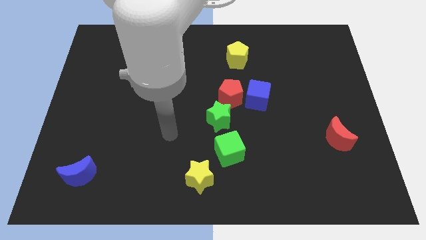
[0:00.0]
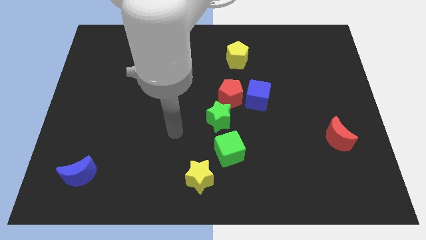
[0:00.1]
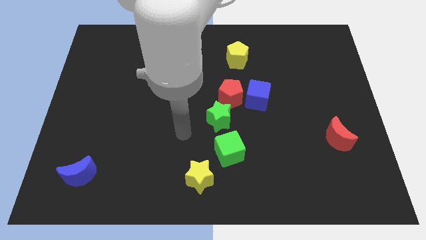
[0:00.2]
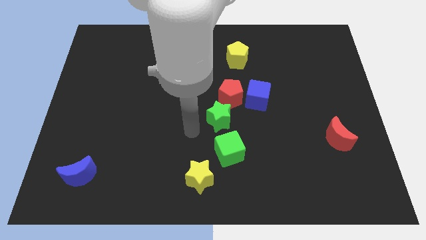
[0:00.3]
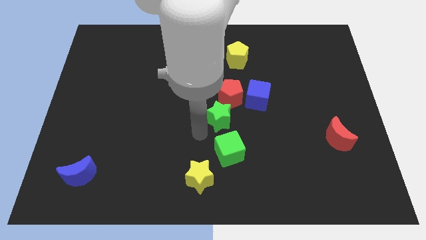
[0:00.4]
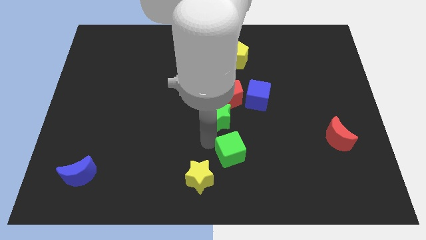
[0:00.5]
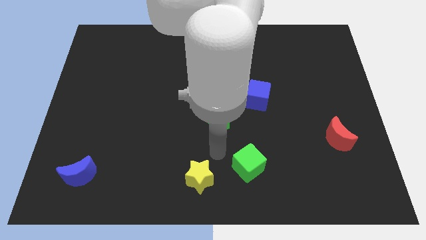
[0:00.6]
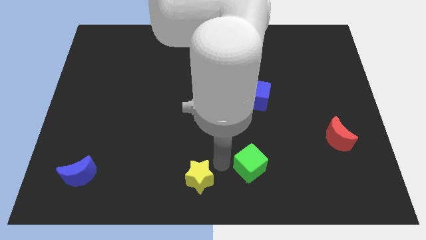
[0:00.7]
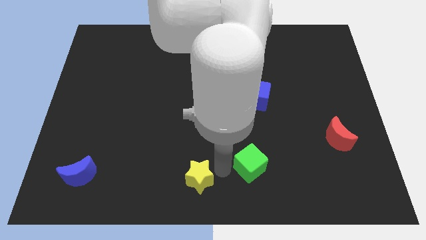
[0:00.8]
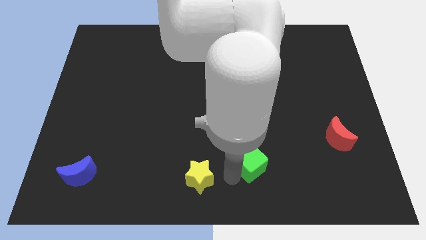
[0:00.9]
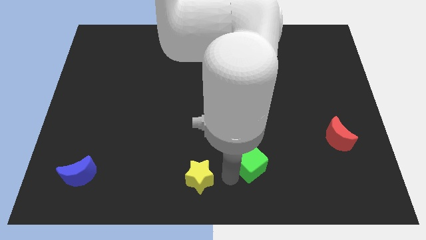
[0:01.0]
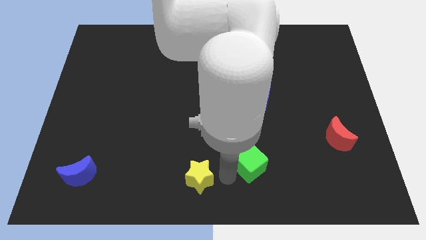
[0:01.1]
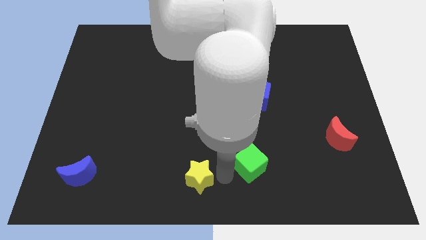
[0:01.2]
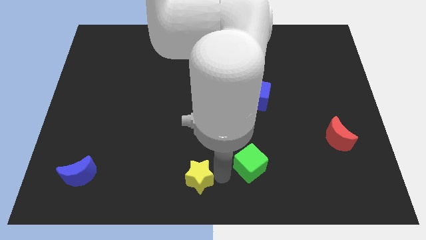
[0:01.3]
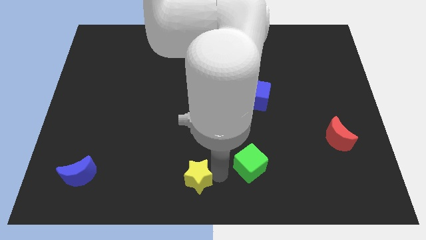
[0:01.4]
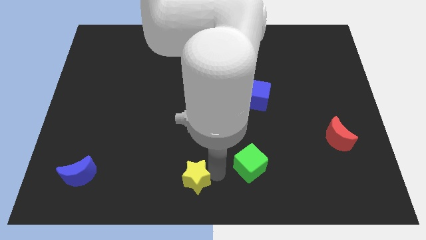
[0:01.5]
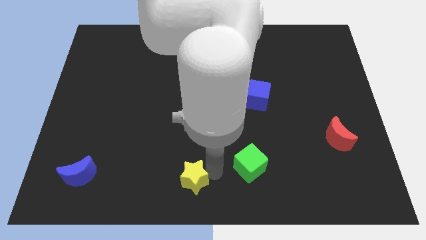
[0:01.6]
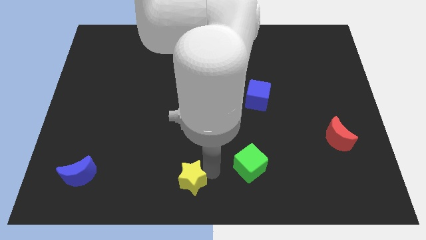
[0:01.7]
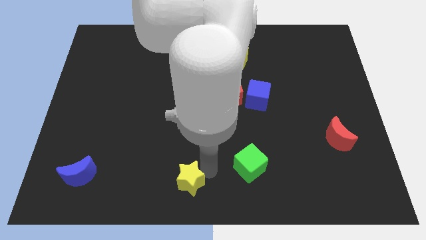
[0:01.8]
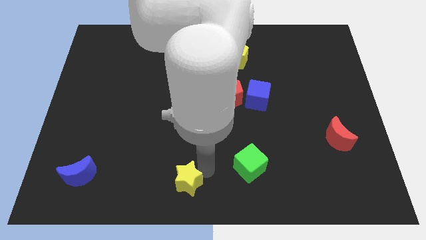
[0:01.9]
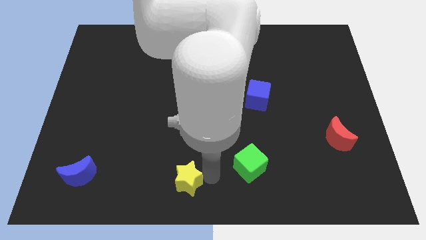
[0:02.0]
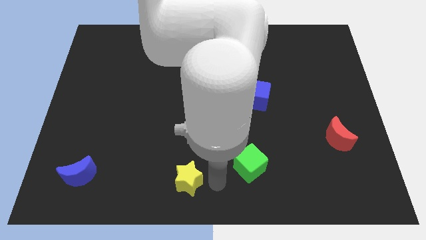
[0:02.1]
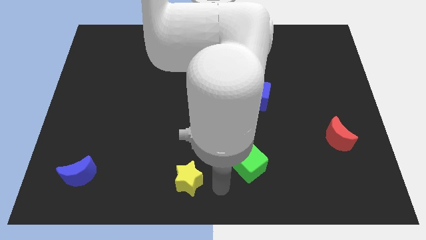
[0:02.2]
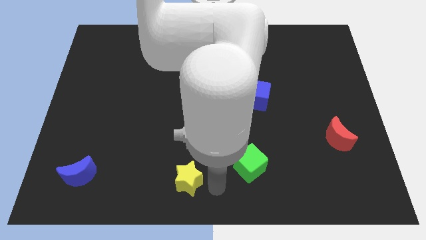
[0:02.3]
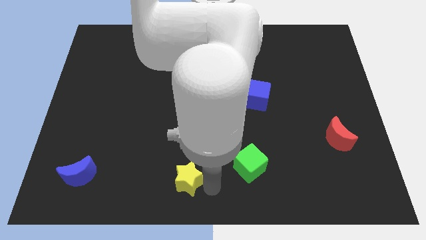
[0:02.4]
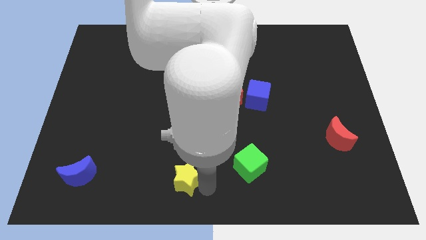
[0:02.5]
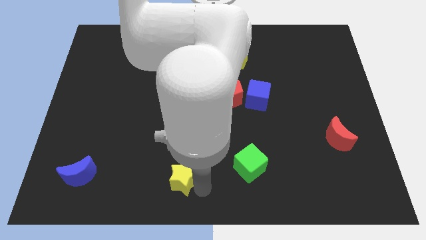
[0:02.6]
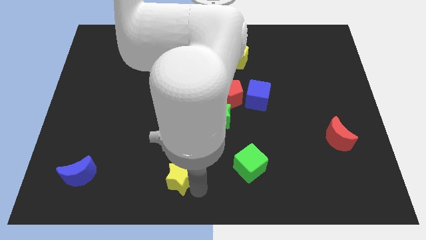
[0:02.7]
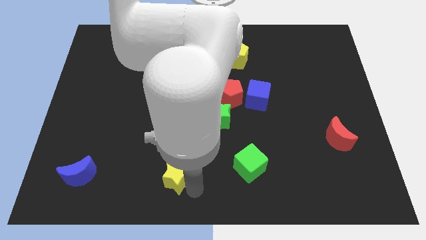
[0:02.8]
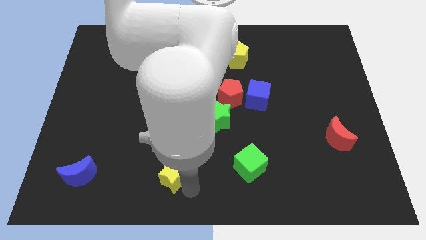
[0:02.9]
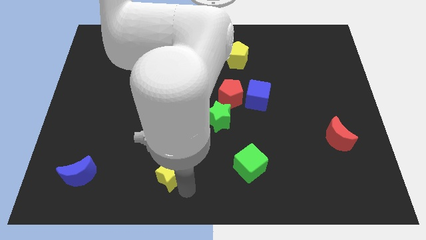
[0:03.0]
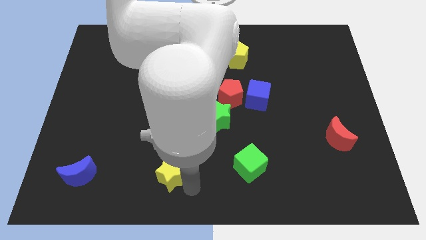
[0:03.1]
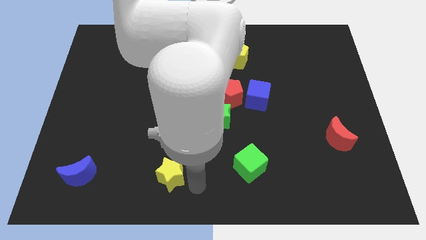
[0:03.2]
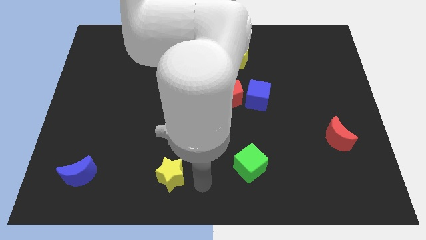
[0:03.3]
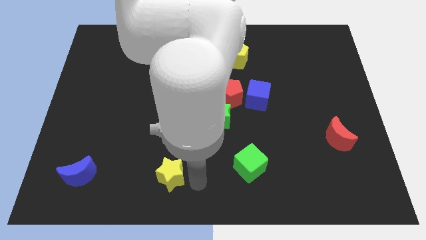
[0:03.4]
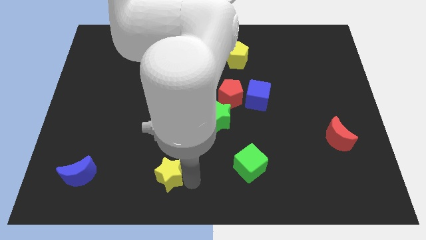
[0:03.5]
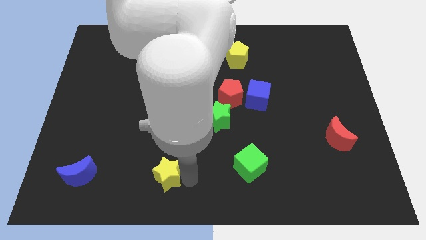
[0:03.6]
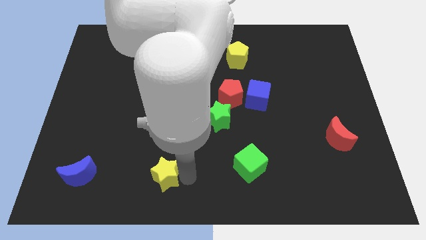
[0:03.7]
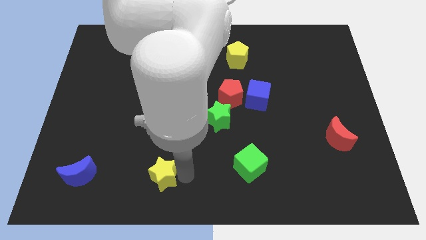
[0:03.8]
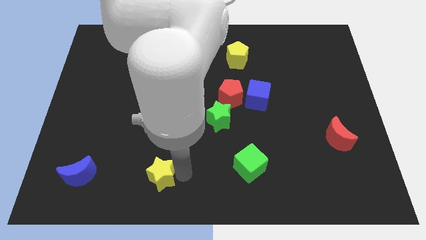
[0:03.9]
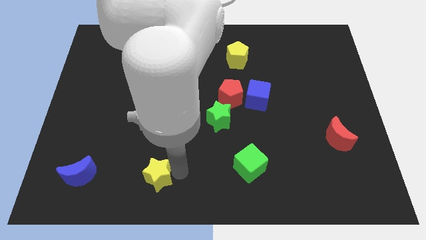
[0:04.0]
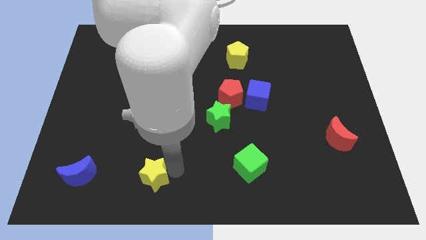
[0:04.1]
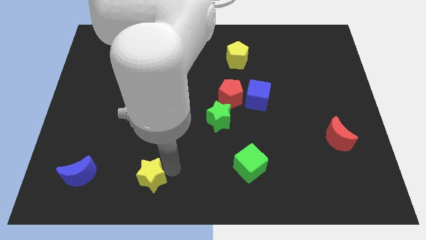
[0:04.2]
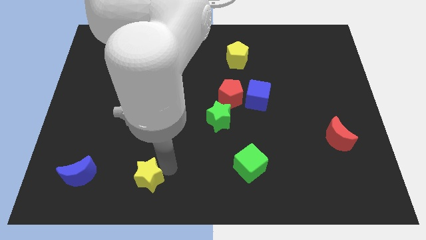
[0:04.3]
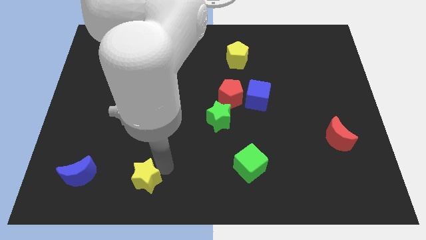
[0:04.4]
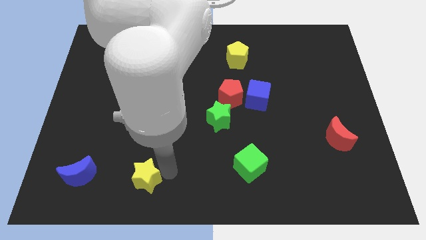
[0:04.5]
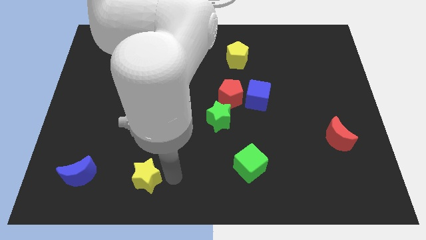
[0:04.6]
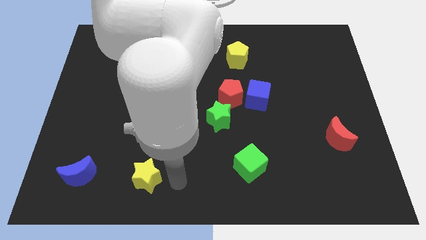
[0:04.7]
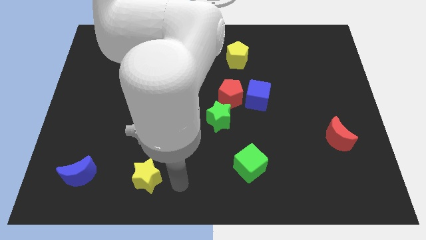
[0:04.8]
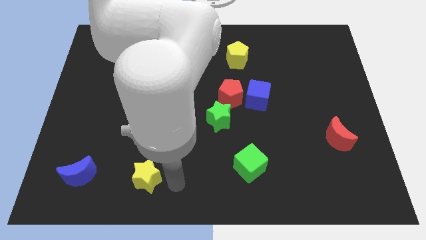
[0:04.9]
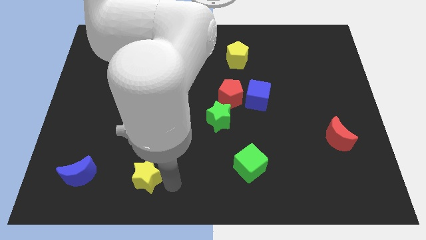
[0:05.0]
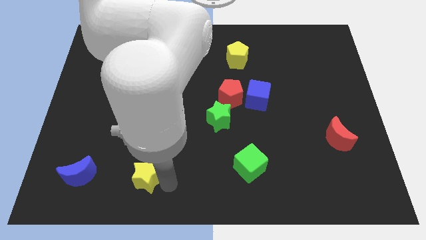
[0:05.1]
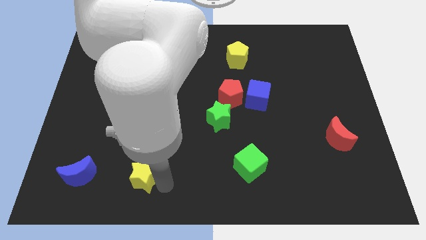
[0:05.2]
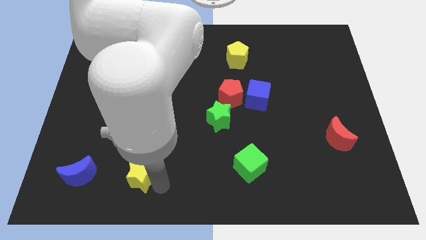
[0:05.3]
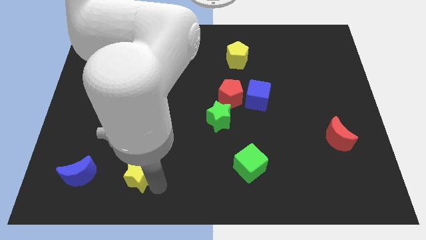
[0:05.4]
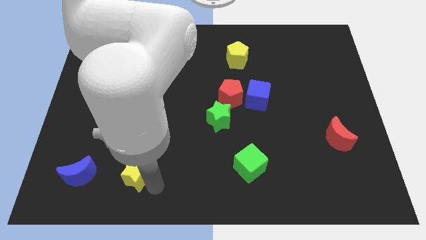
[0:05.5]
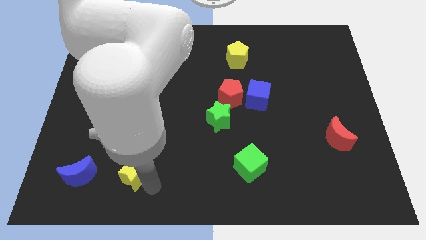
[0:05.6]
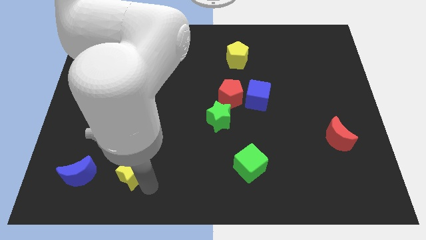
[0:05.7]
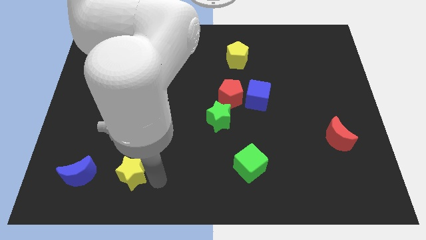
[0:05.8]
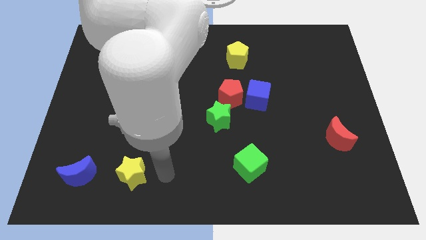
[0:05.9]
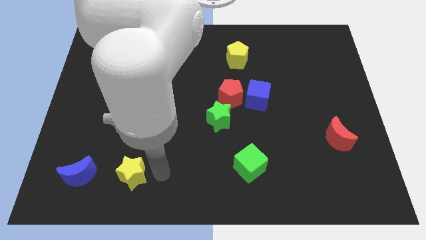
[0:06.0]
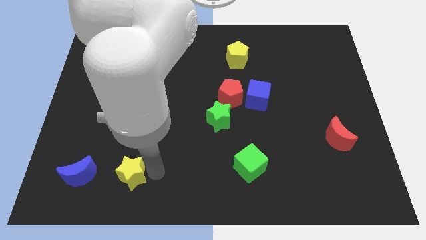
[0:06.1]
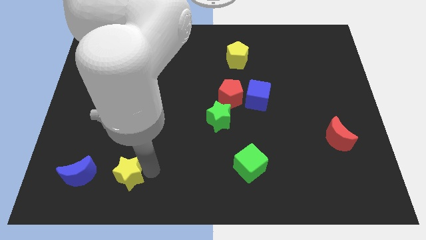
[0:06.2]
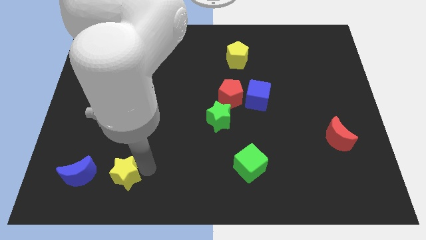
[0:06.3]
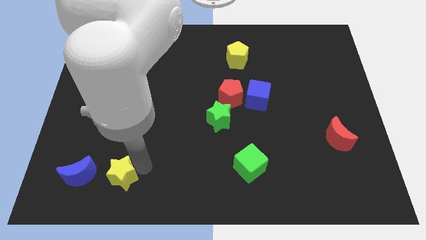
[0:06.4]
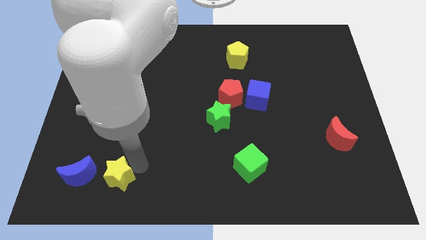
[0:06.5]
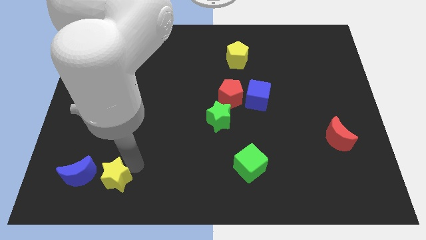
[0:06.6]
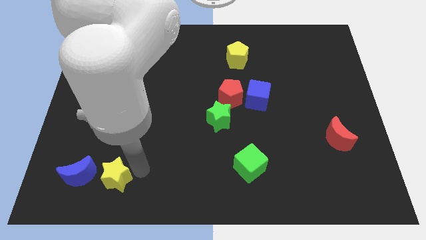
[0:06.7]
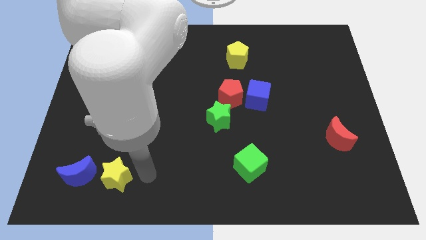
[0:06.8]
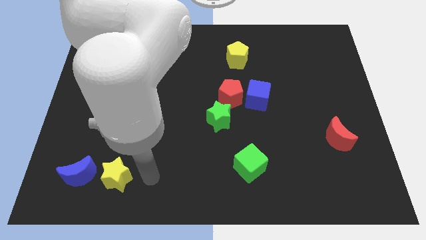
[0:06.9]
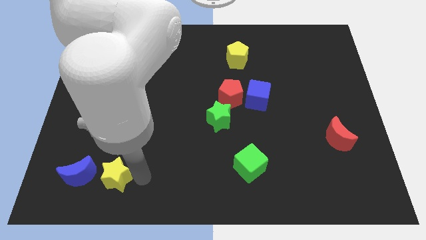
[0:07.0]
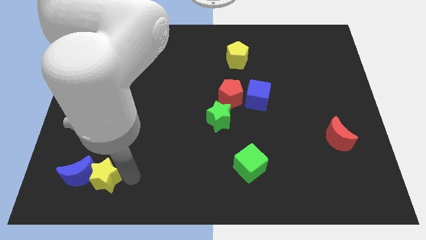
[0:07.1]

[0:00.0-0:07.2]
move the yellow star to the blue moon
